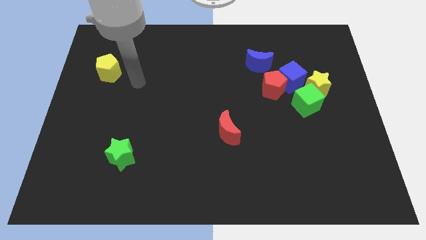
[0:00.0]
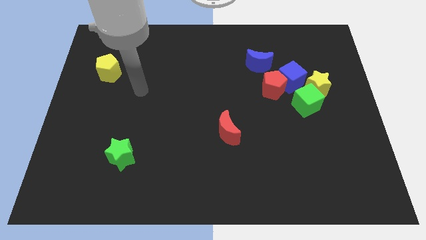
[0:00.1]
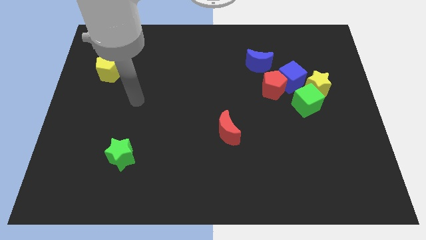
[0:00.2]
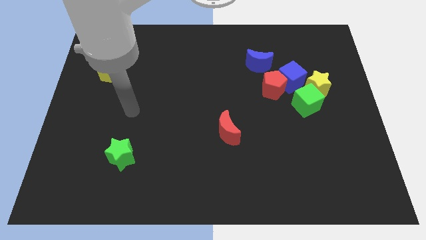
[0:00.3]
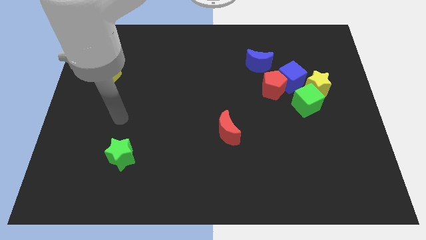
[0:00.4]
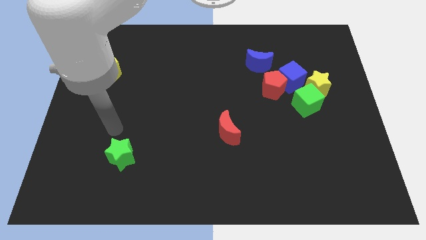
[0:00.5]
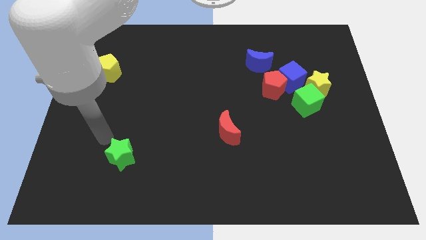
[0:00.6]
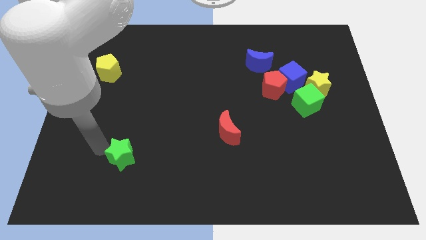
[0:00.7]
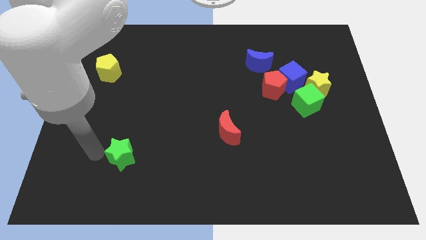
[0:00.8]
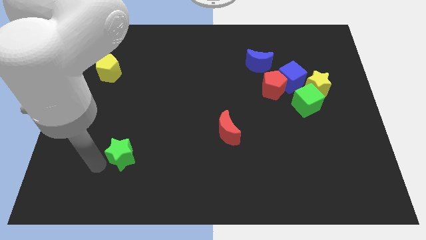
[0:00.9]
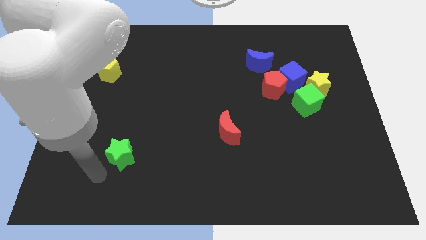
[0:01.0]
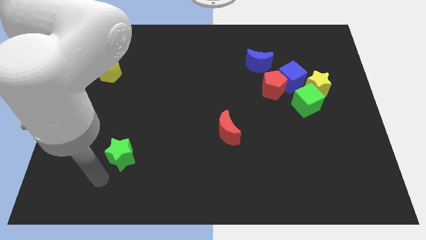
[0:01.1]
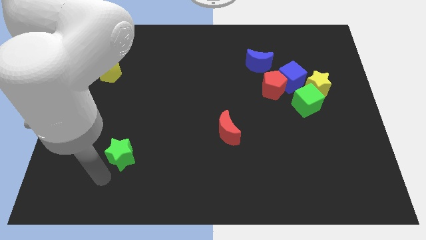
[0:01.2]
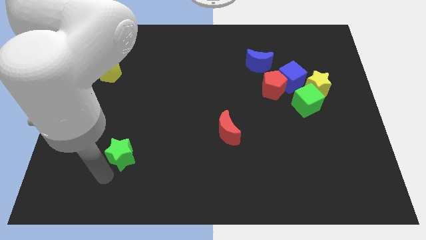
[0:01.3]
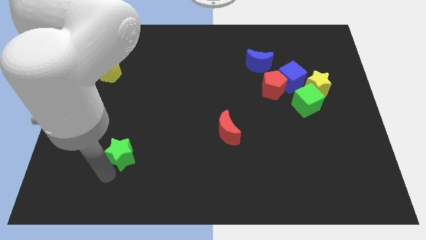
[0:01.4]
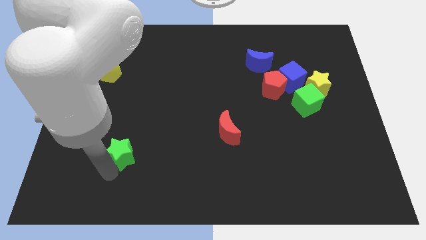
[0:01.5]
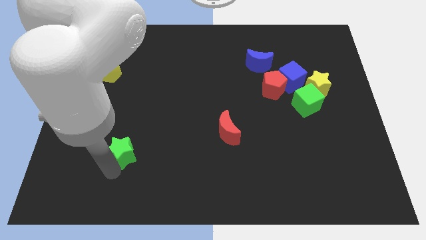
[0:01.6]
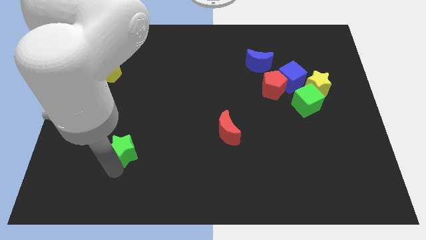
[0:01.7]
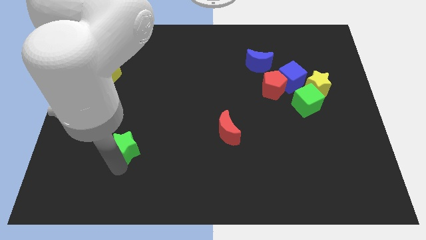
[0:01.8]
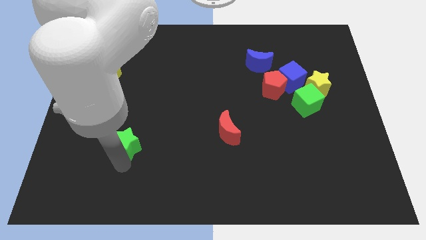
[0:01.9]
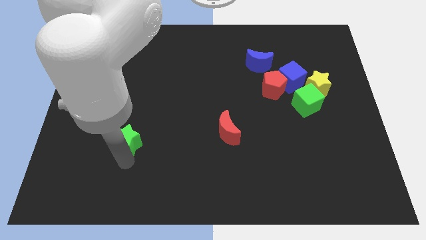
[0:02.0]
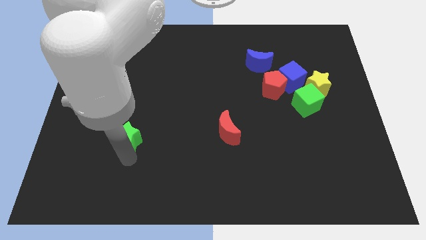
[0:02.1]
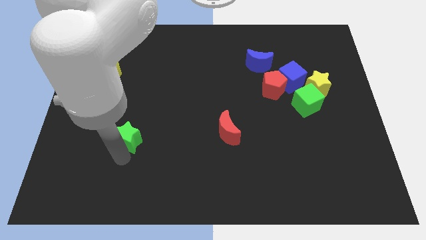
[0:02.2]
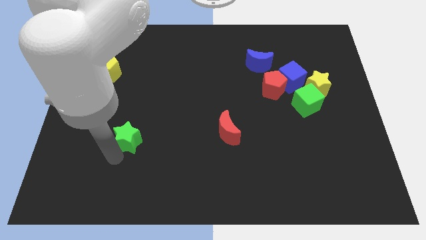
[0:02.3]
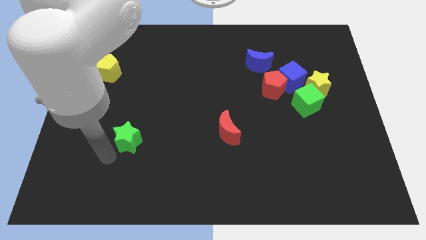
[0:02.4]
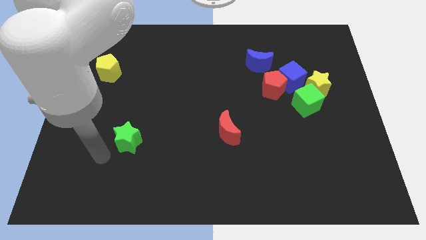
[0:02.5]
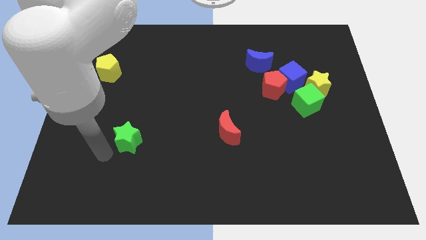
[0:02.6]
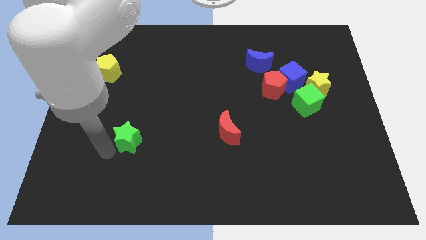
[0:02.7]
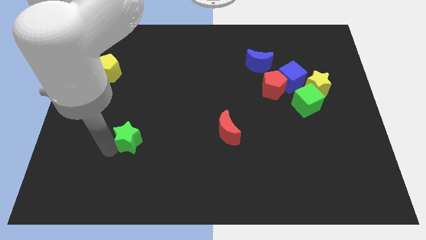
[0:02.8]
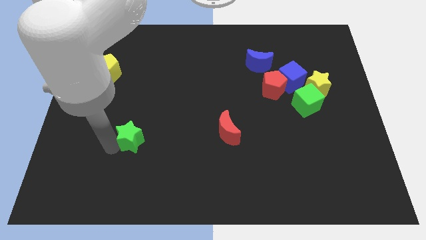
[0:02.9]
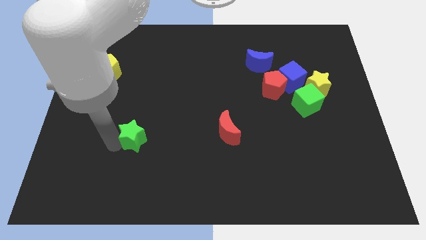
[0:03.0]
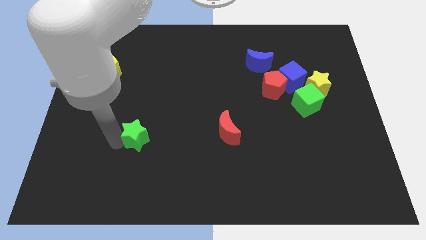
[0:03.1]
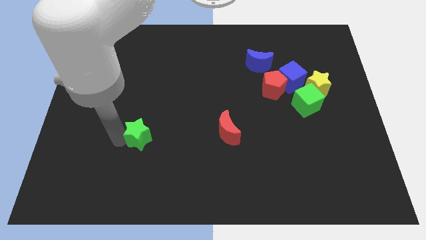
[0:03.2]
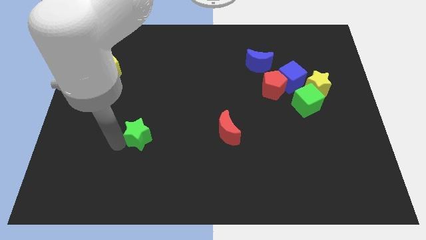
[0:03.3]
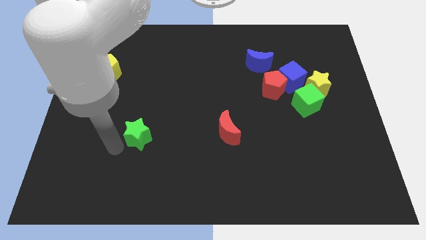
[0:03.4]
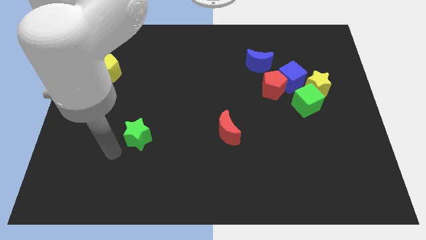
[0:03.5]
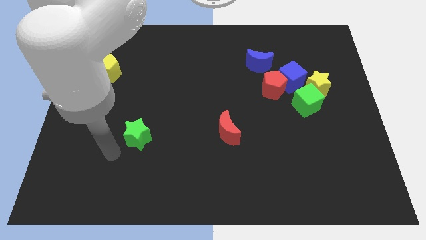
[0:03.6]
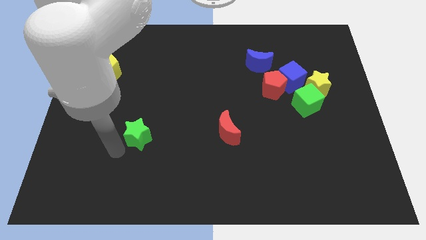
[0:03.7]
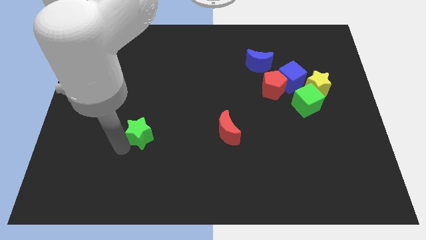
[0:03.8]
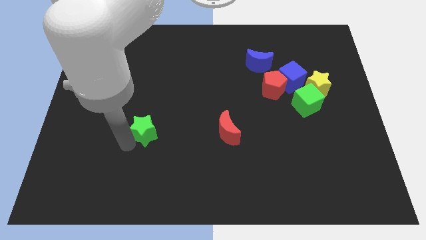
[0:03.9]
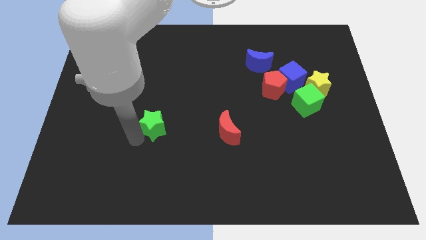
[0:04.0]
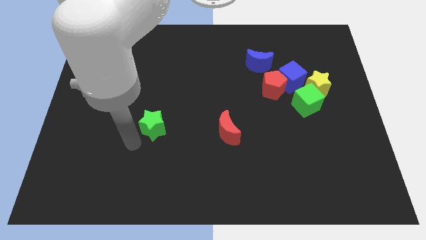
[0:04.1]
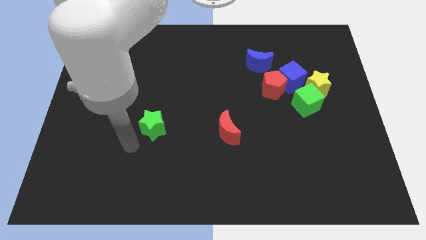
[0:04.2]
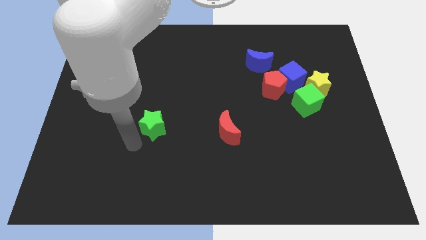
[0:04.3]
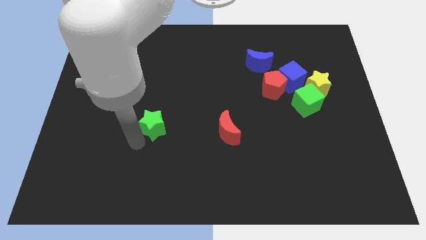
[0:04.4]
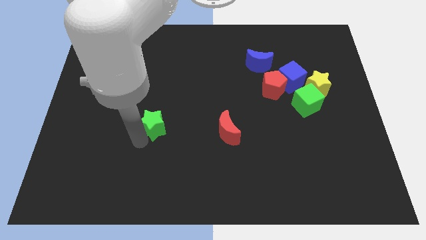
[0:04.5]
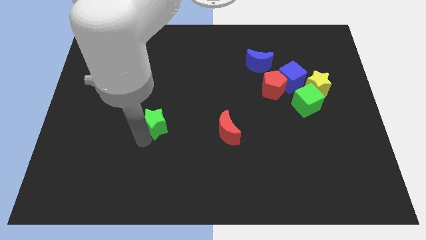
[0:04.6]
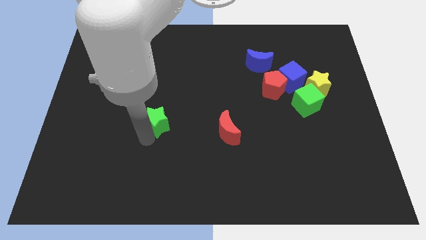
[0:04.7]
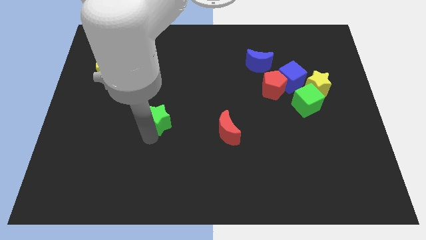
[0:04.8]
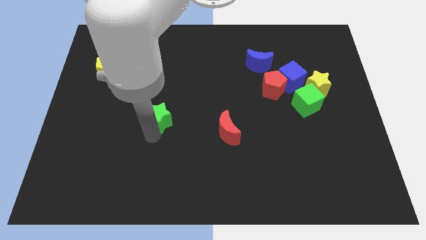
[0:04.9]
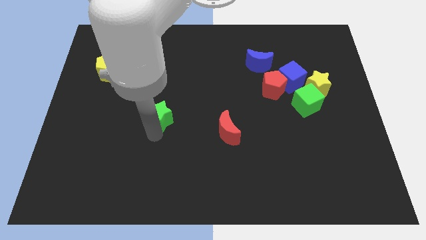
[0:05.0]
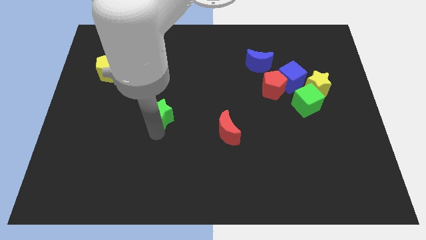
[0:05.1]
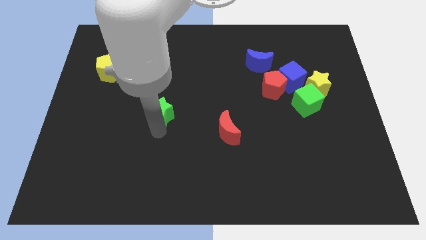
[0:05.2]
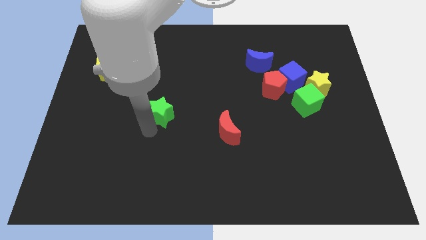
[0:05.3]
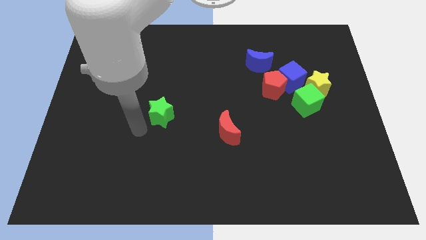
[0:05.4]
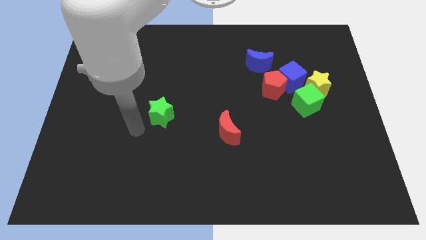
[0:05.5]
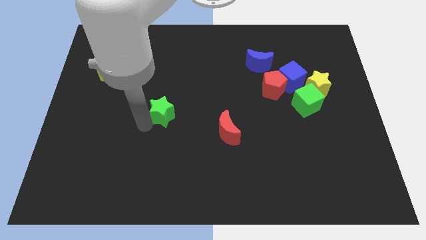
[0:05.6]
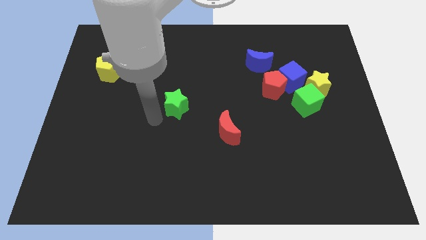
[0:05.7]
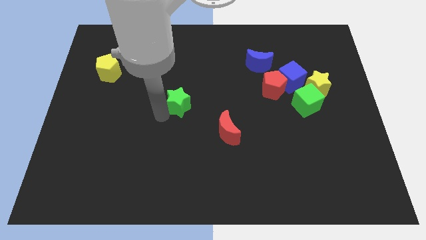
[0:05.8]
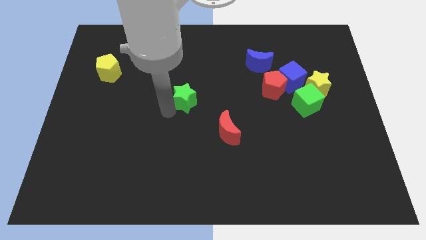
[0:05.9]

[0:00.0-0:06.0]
push the green star upwards and to the right diagonally

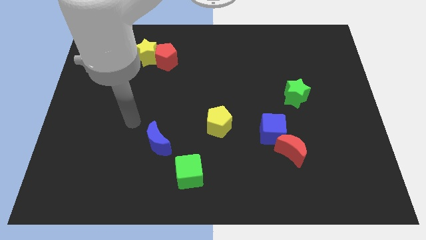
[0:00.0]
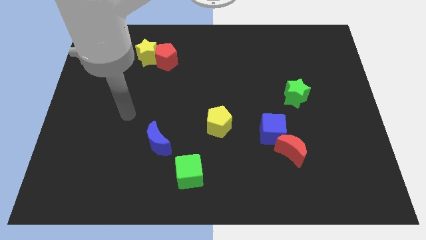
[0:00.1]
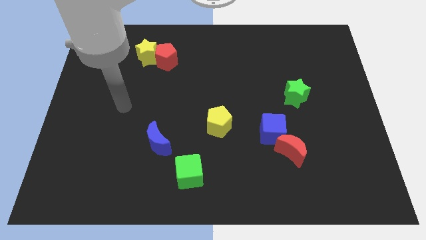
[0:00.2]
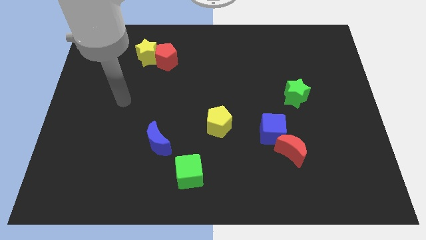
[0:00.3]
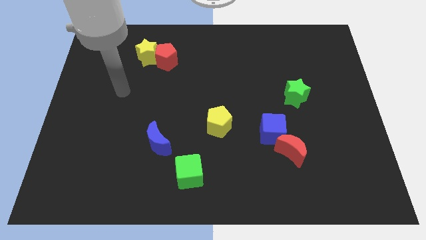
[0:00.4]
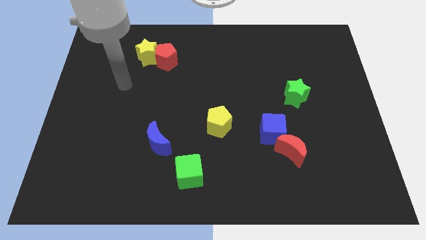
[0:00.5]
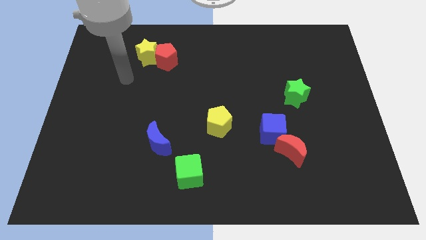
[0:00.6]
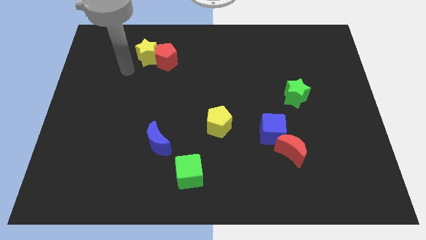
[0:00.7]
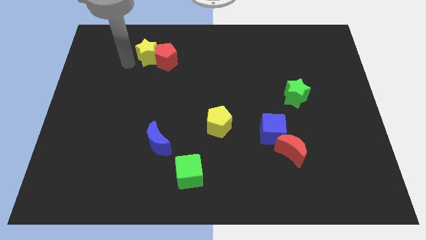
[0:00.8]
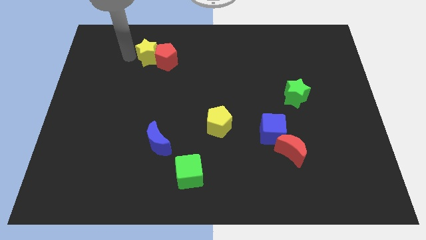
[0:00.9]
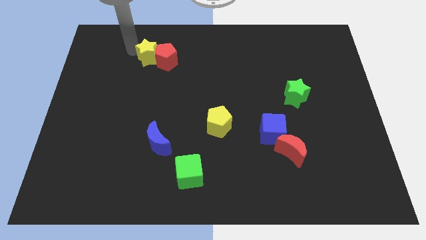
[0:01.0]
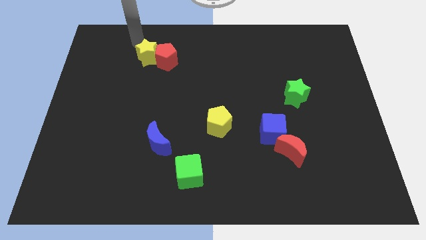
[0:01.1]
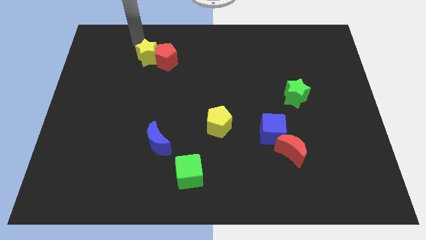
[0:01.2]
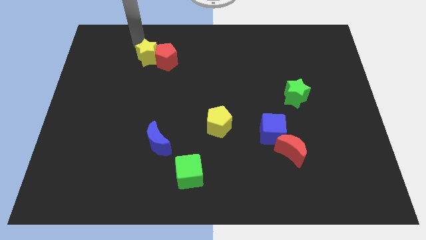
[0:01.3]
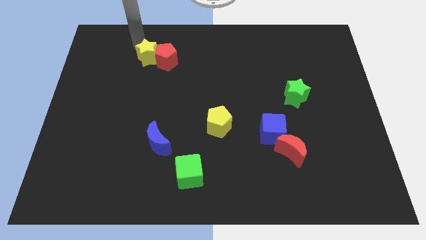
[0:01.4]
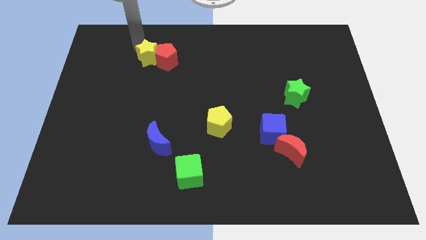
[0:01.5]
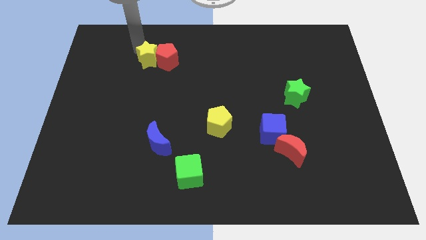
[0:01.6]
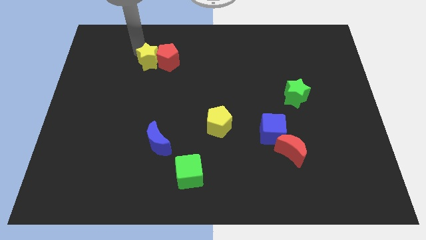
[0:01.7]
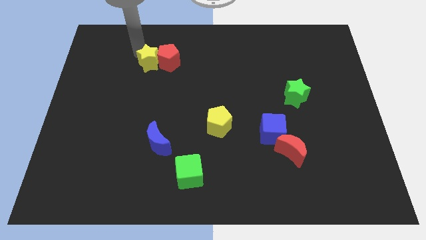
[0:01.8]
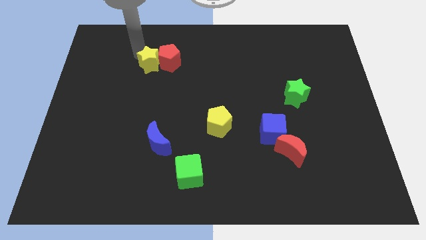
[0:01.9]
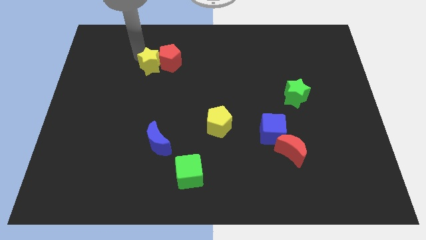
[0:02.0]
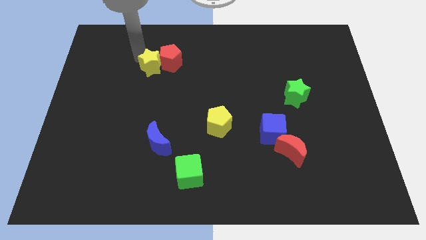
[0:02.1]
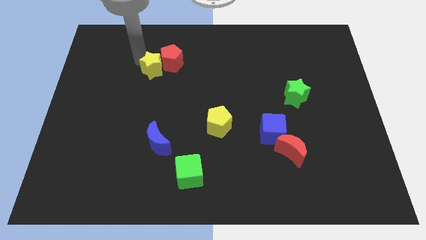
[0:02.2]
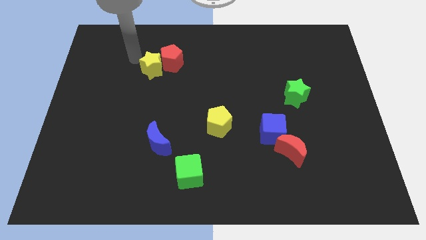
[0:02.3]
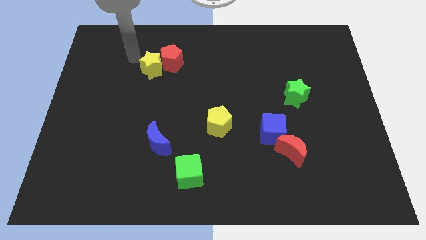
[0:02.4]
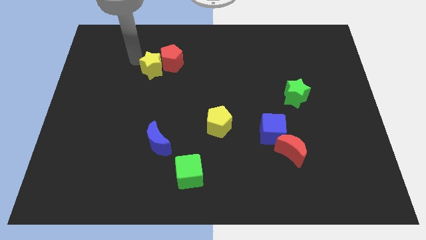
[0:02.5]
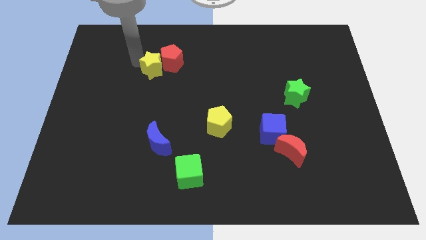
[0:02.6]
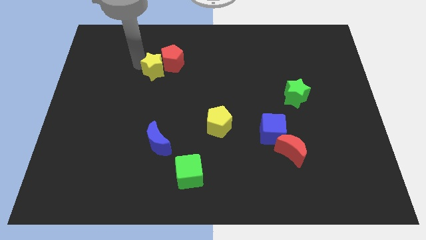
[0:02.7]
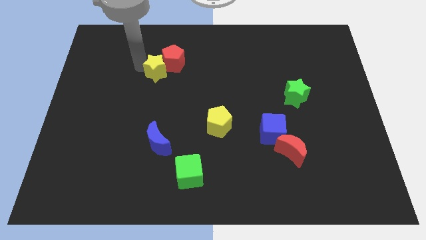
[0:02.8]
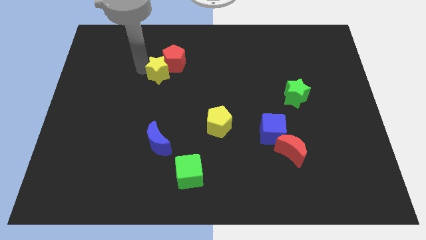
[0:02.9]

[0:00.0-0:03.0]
push the yellow star downwards and then right a bit
